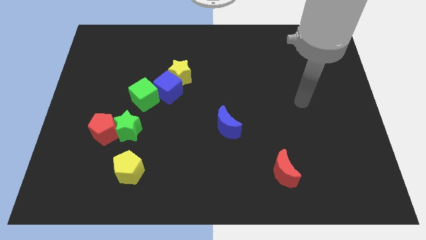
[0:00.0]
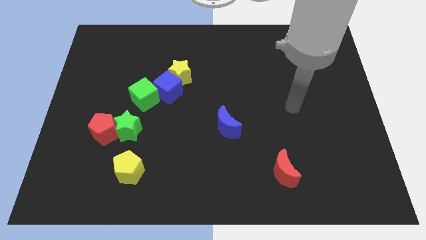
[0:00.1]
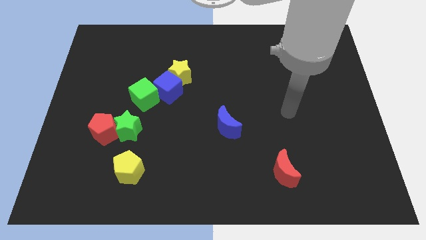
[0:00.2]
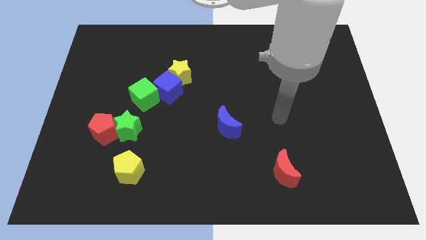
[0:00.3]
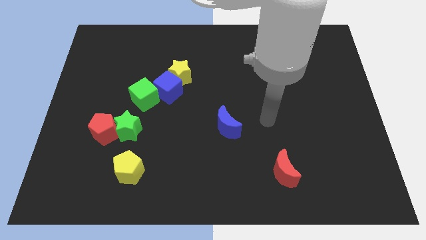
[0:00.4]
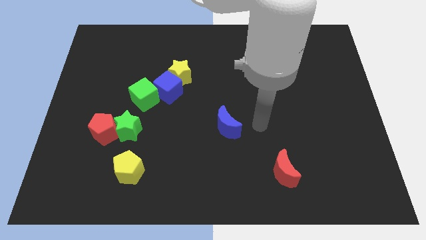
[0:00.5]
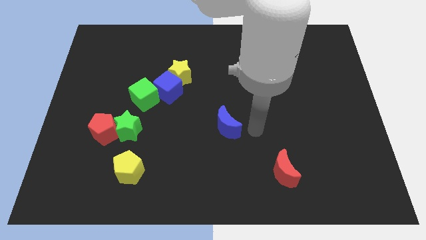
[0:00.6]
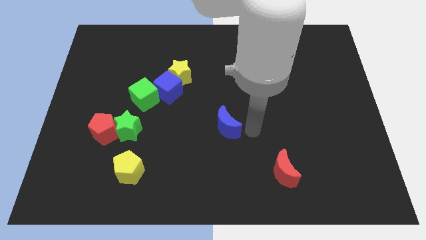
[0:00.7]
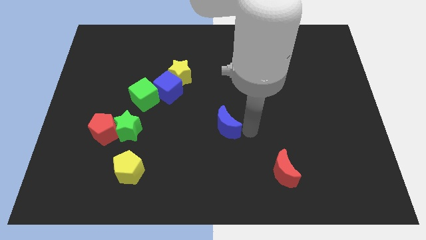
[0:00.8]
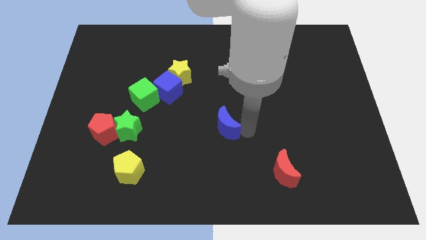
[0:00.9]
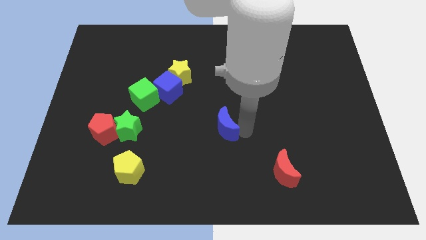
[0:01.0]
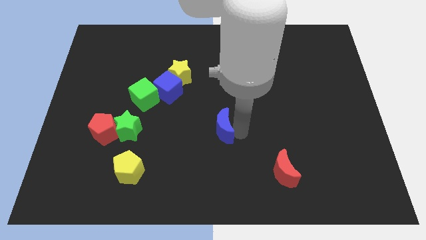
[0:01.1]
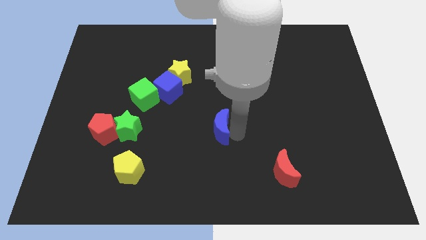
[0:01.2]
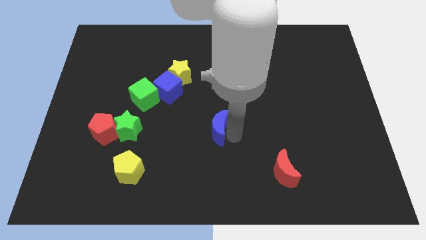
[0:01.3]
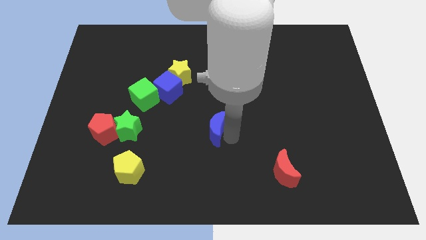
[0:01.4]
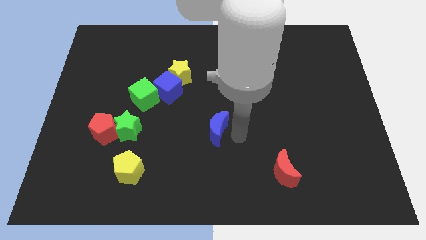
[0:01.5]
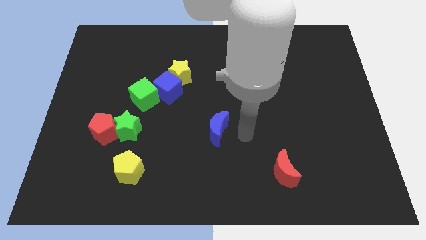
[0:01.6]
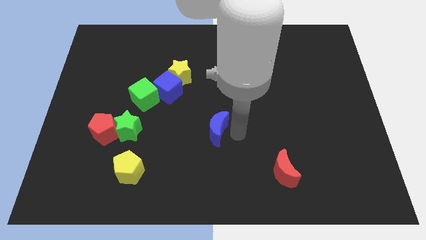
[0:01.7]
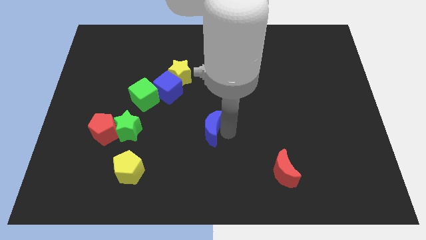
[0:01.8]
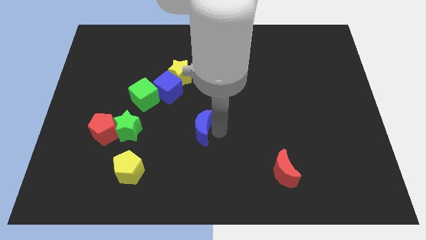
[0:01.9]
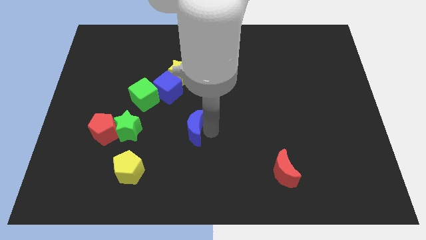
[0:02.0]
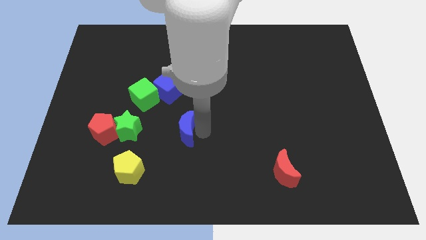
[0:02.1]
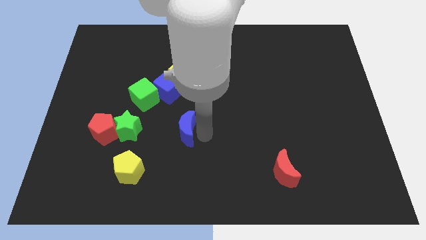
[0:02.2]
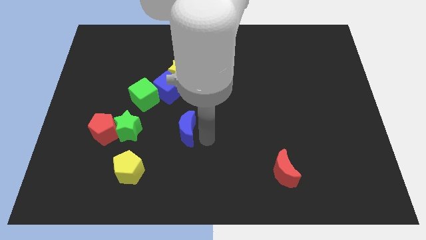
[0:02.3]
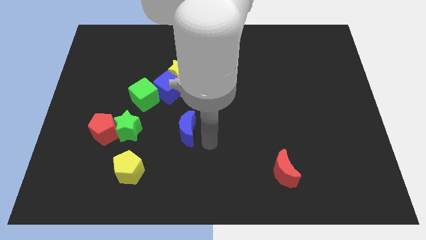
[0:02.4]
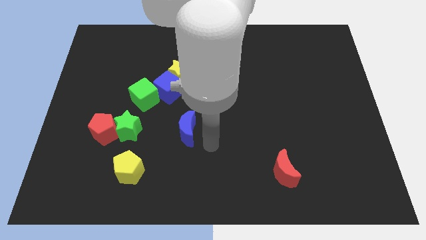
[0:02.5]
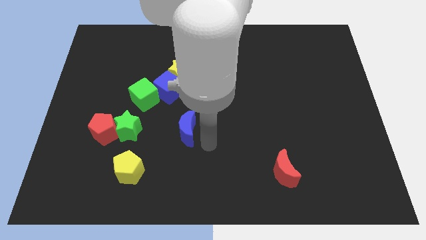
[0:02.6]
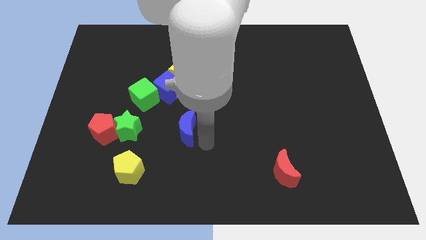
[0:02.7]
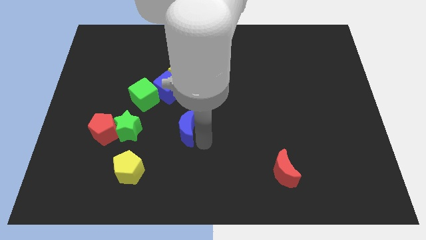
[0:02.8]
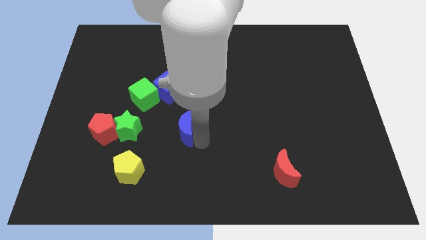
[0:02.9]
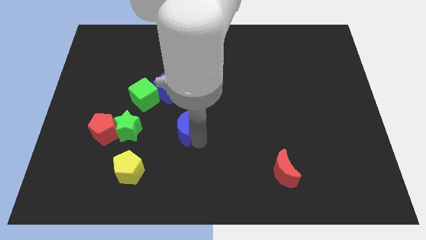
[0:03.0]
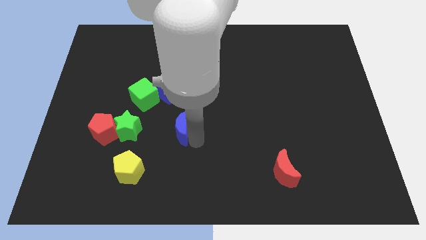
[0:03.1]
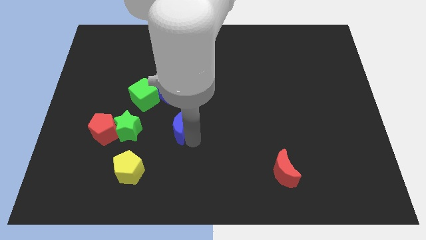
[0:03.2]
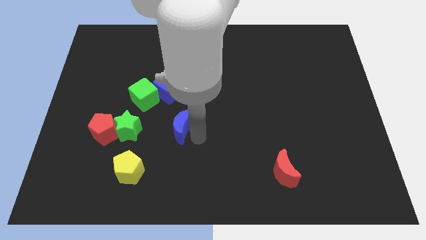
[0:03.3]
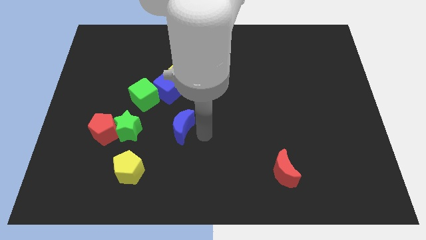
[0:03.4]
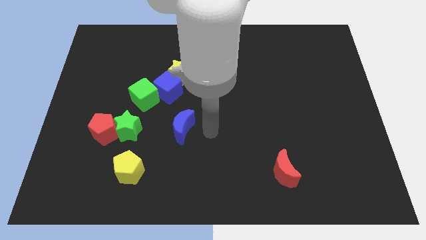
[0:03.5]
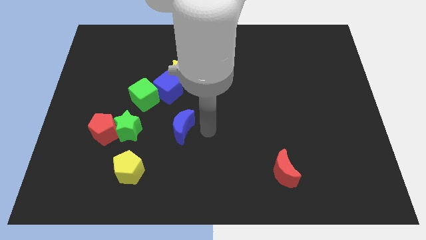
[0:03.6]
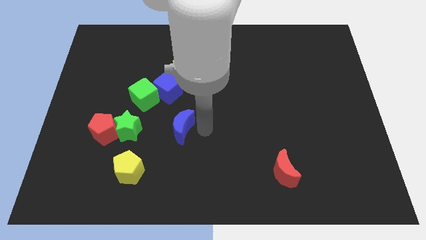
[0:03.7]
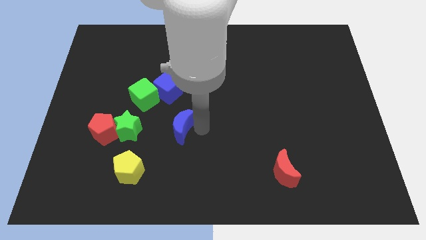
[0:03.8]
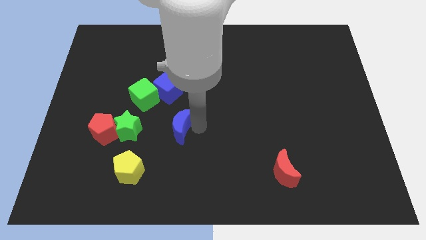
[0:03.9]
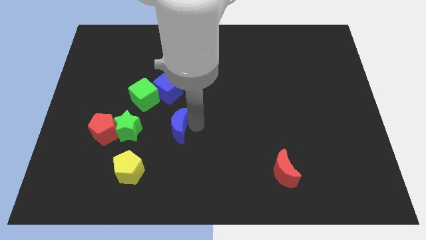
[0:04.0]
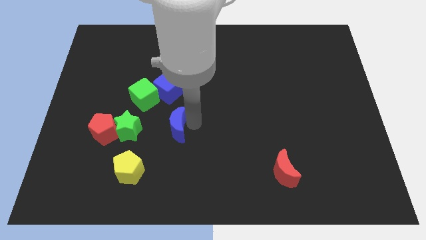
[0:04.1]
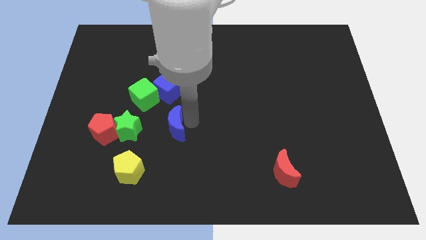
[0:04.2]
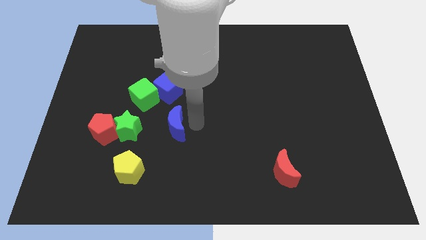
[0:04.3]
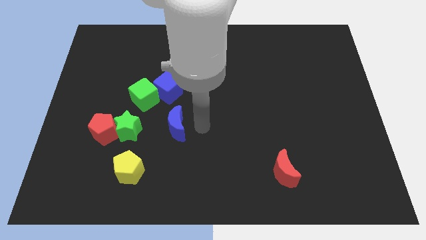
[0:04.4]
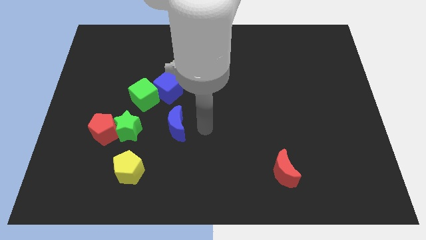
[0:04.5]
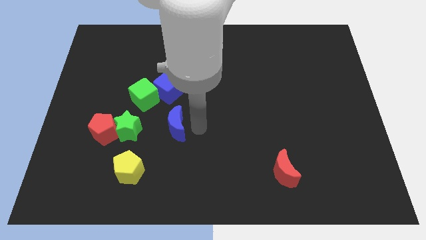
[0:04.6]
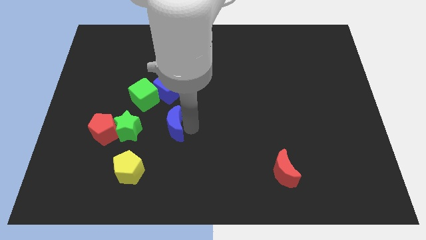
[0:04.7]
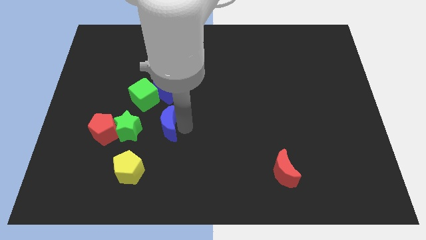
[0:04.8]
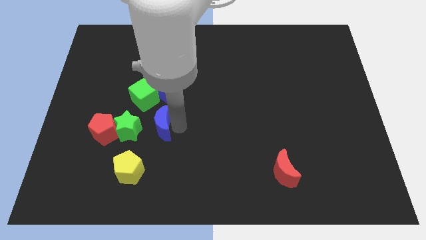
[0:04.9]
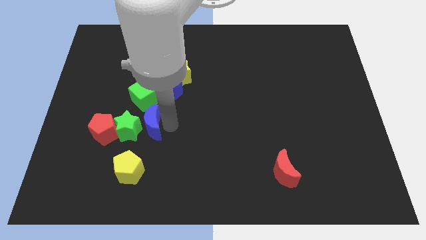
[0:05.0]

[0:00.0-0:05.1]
put the blue moon close to the green star

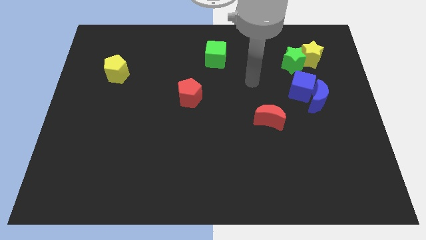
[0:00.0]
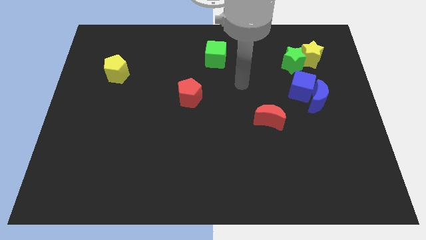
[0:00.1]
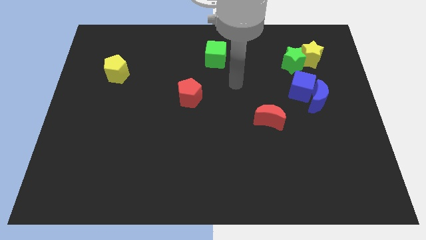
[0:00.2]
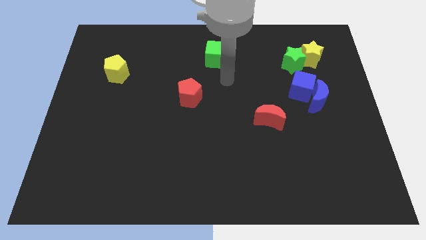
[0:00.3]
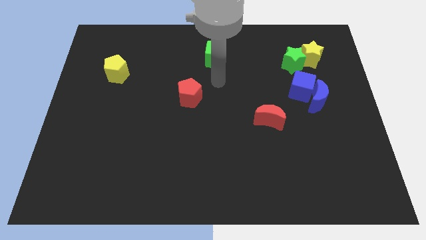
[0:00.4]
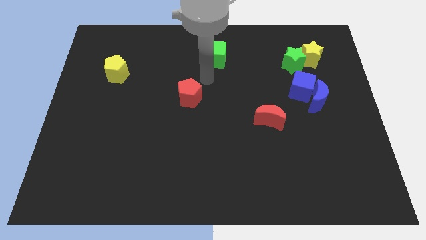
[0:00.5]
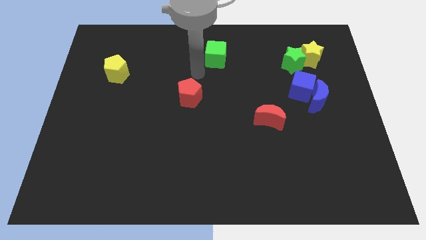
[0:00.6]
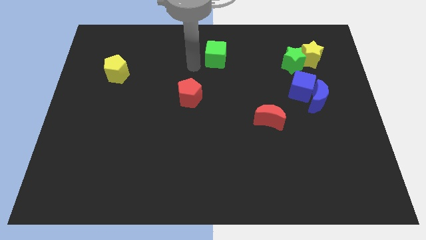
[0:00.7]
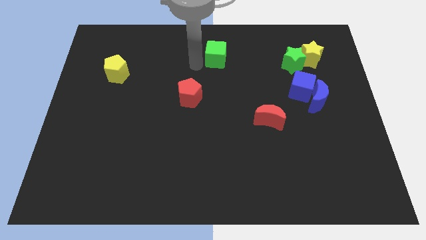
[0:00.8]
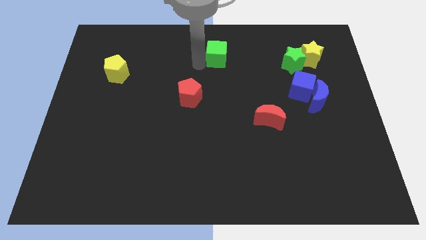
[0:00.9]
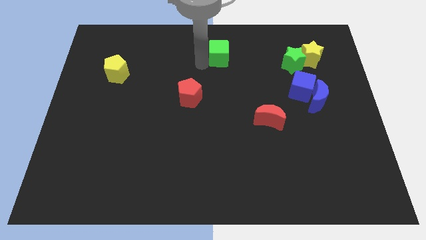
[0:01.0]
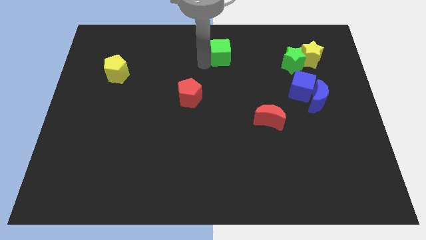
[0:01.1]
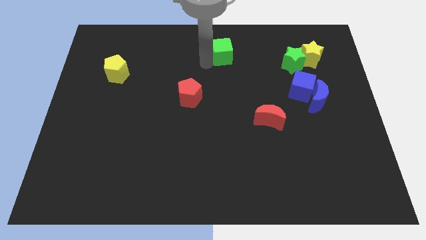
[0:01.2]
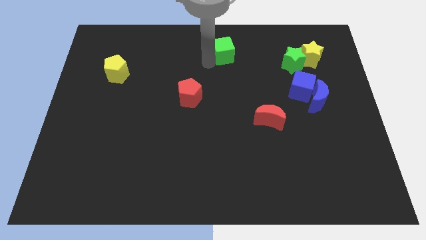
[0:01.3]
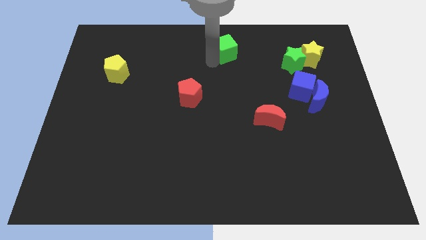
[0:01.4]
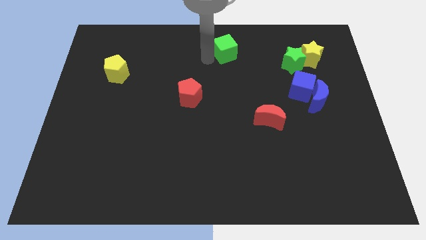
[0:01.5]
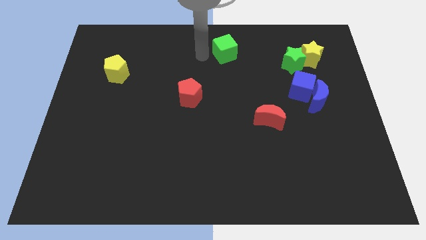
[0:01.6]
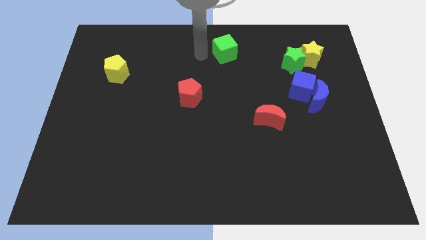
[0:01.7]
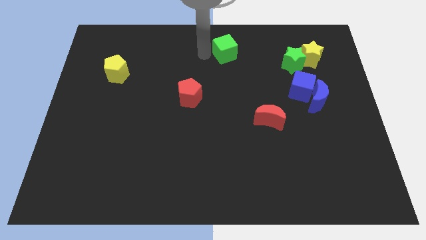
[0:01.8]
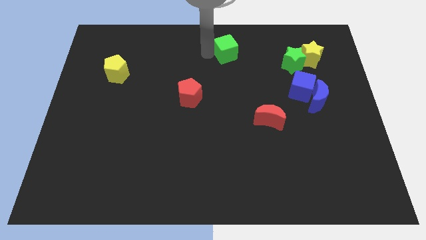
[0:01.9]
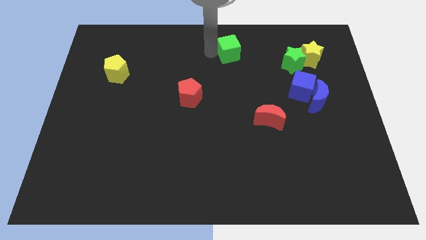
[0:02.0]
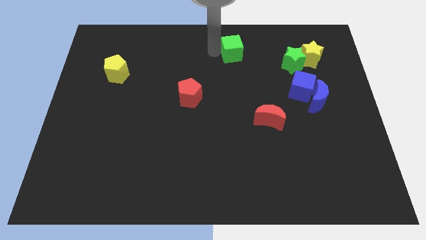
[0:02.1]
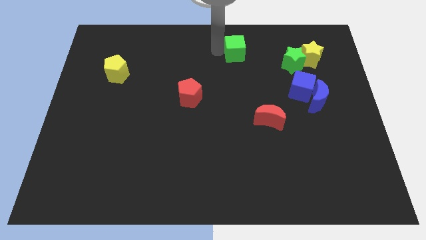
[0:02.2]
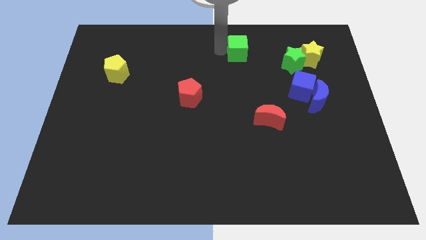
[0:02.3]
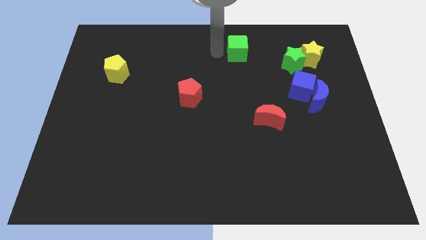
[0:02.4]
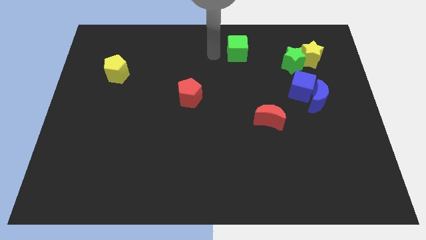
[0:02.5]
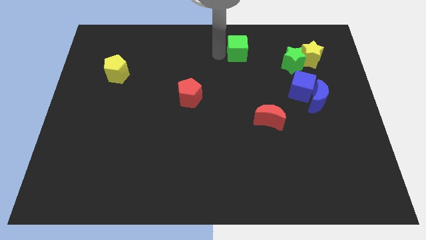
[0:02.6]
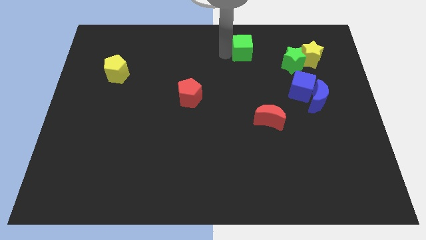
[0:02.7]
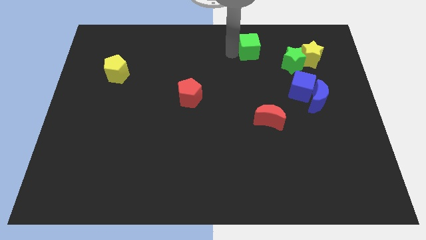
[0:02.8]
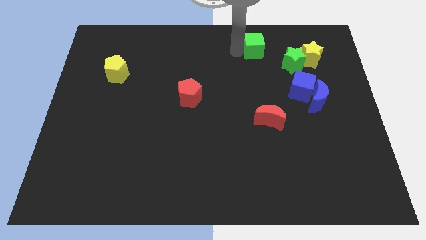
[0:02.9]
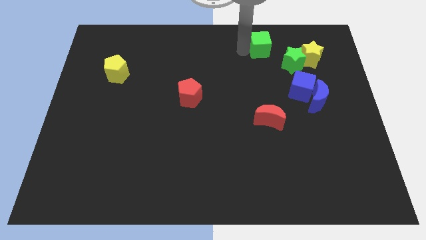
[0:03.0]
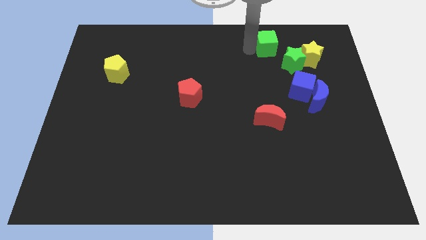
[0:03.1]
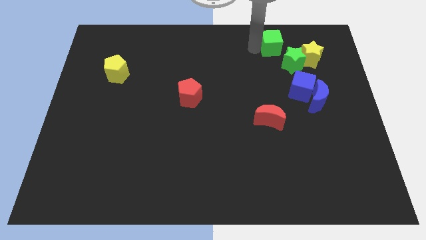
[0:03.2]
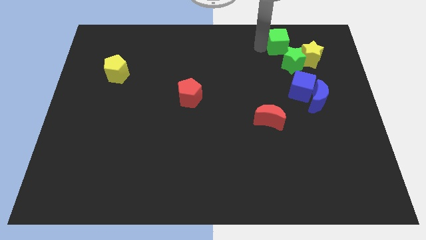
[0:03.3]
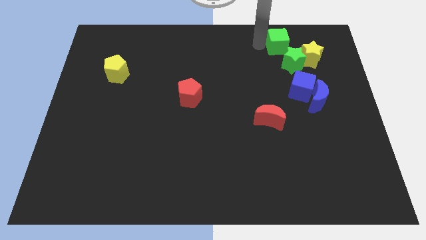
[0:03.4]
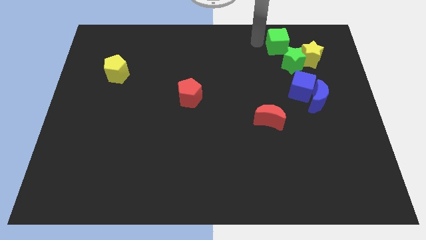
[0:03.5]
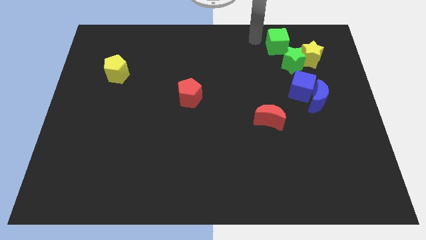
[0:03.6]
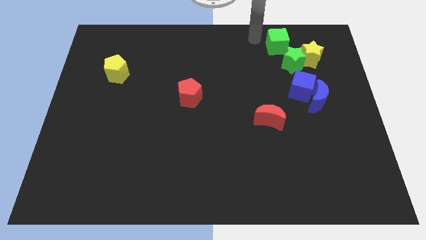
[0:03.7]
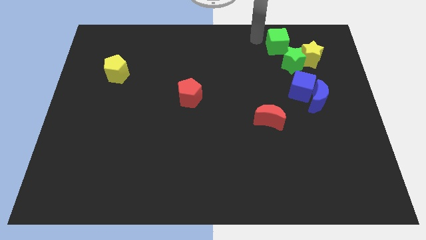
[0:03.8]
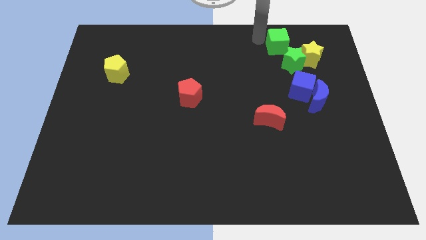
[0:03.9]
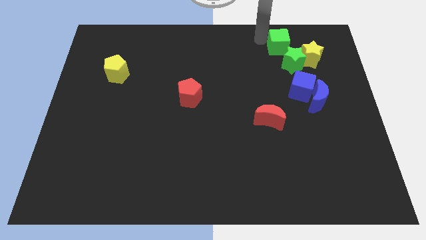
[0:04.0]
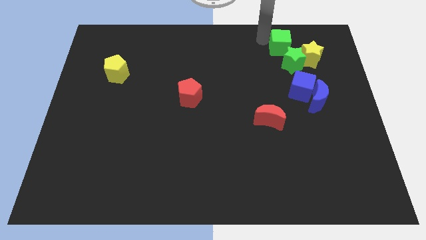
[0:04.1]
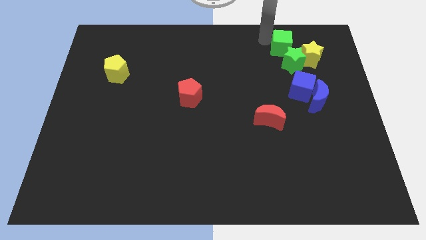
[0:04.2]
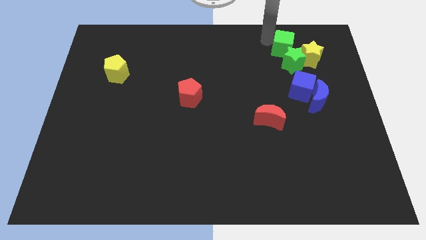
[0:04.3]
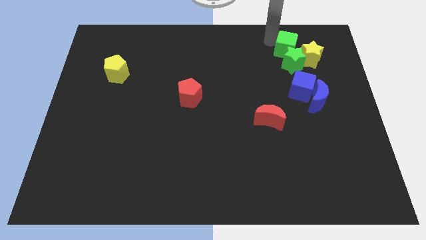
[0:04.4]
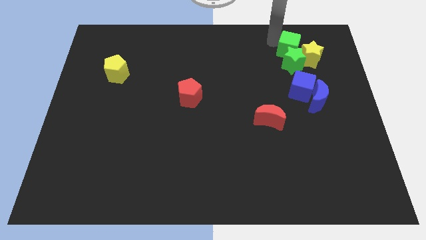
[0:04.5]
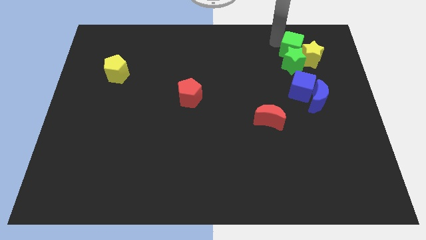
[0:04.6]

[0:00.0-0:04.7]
push the green cube close to the yellow star
